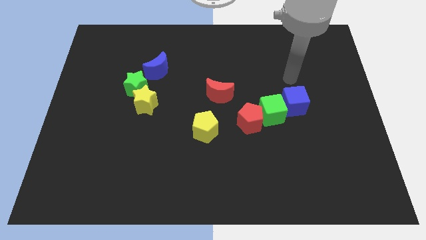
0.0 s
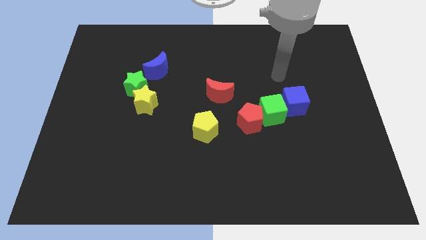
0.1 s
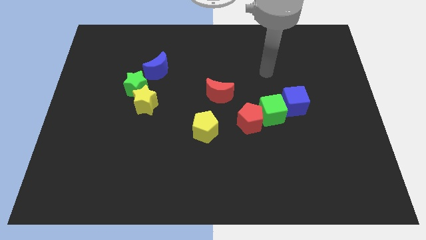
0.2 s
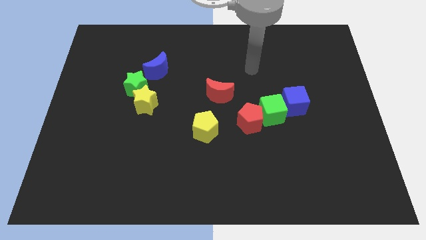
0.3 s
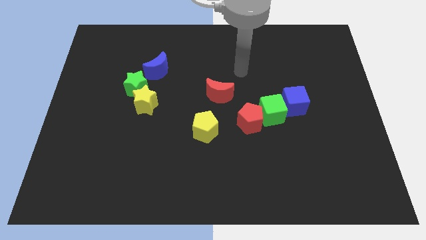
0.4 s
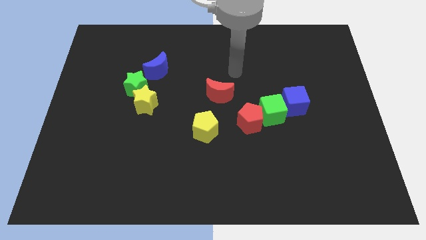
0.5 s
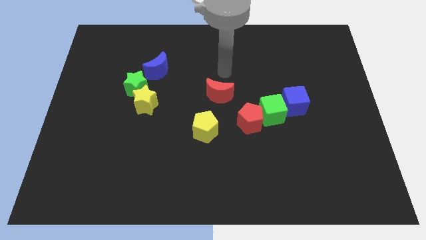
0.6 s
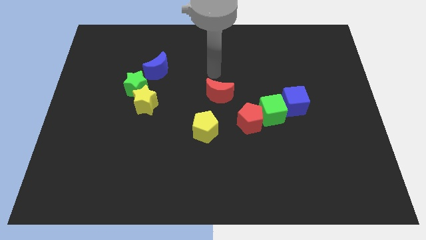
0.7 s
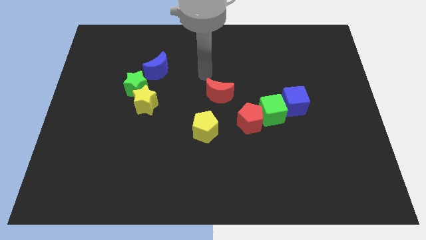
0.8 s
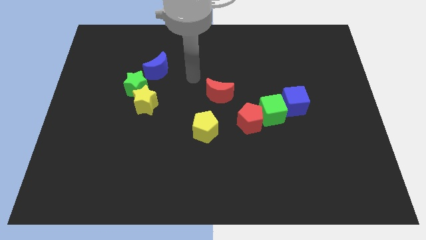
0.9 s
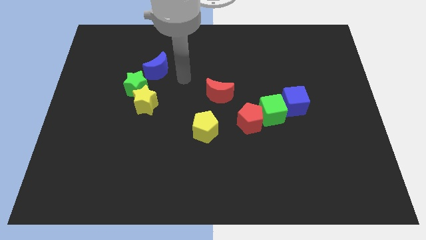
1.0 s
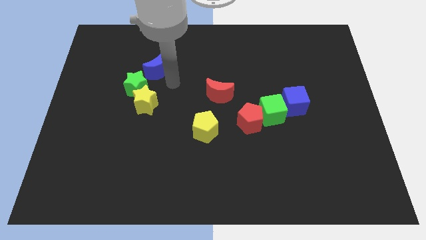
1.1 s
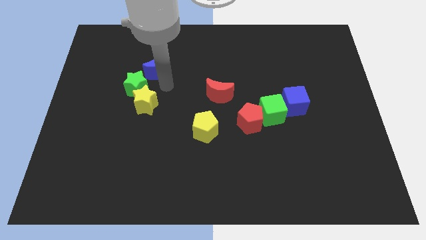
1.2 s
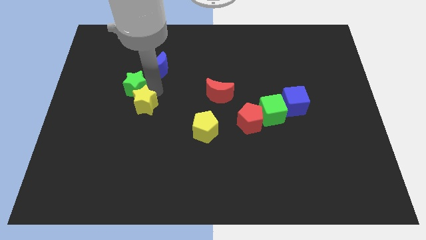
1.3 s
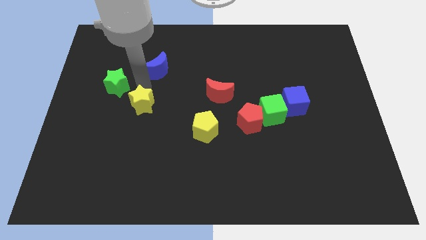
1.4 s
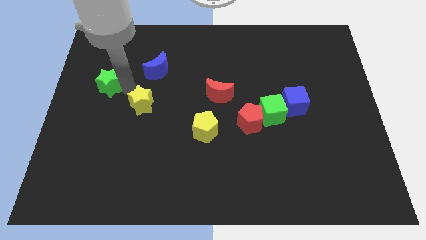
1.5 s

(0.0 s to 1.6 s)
move the yellow star away from the green star

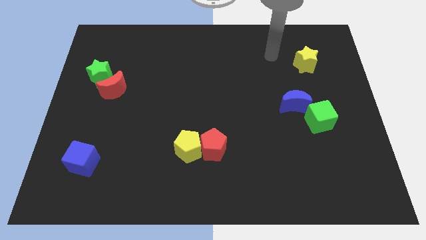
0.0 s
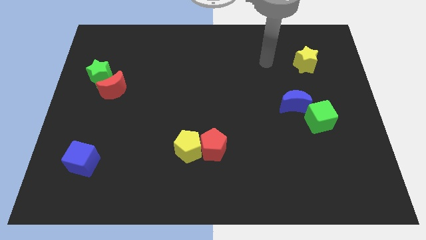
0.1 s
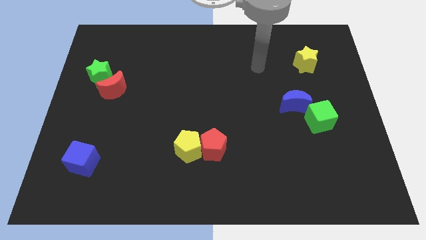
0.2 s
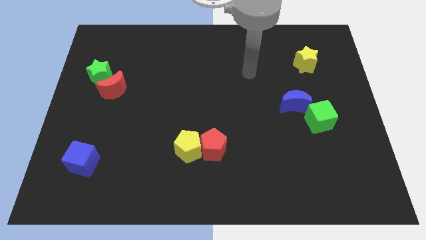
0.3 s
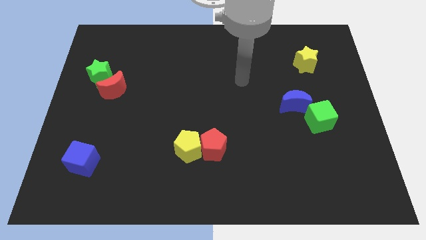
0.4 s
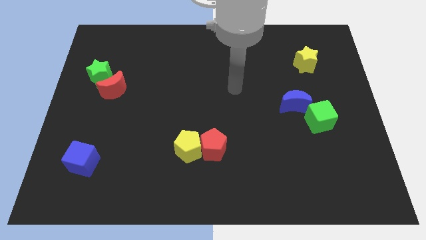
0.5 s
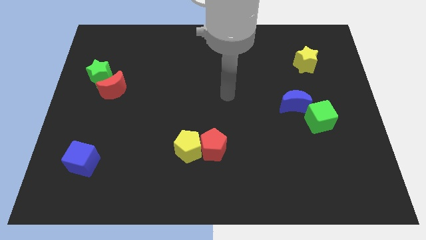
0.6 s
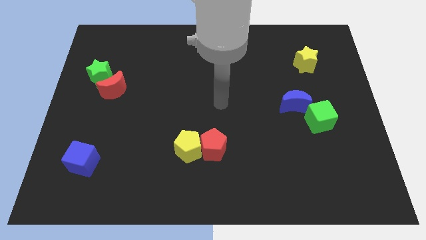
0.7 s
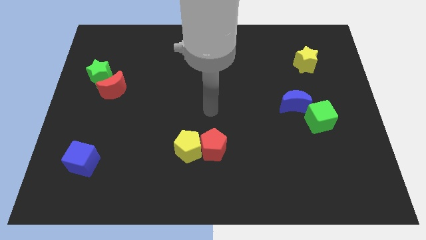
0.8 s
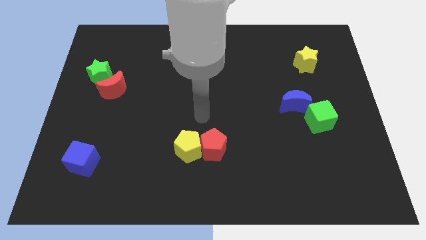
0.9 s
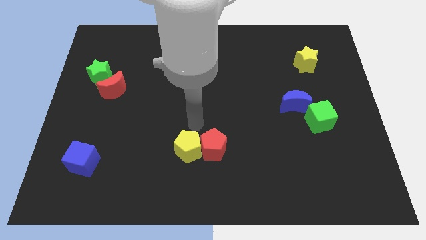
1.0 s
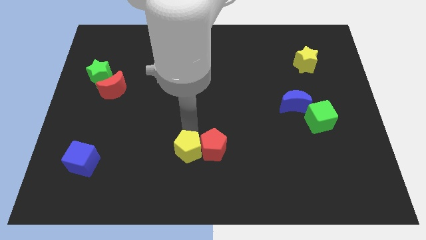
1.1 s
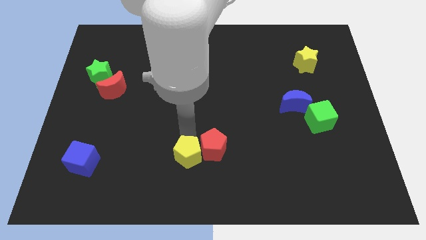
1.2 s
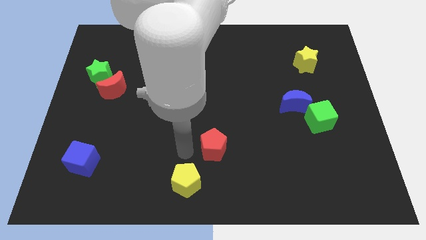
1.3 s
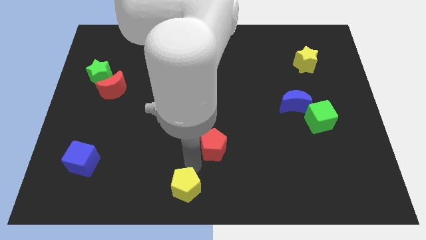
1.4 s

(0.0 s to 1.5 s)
separate the red pentagon from the yellow pentagon

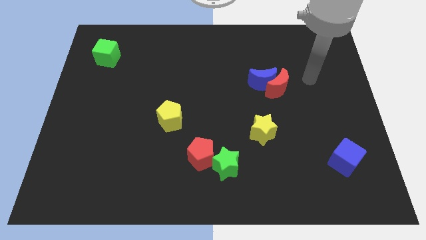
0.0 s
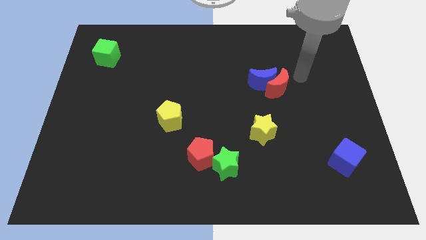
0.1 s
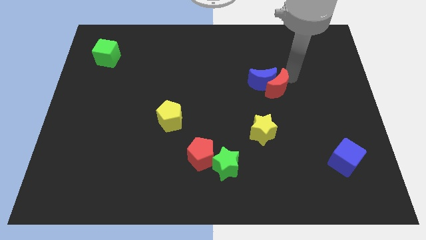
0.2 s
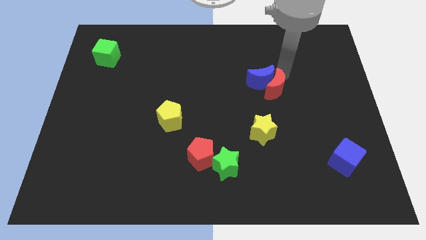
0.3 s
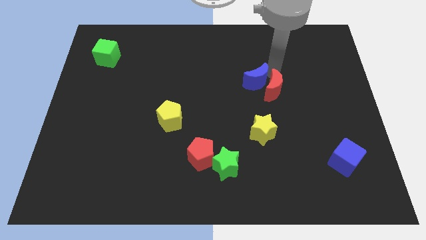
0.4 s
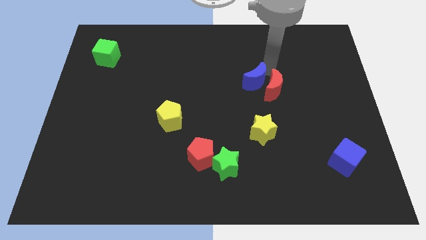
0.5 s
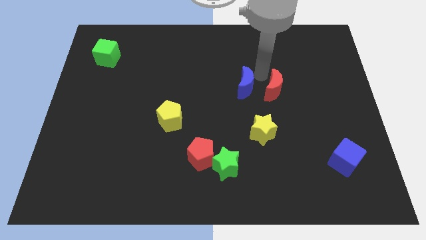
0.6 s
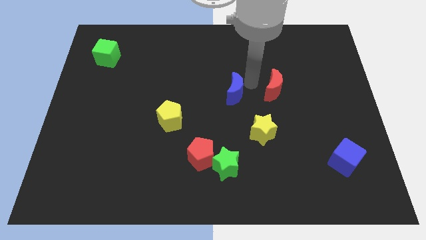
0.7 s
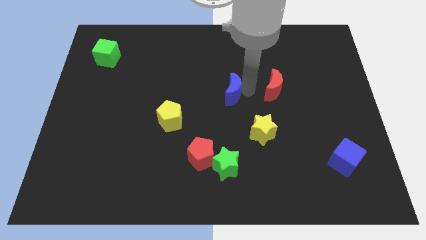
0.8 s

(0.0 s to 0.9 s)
pull the red moon apart from the blue moon

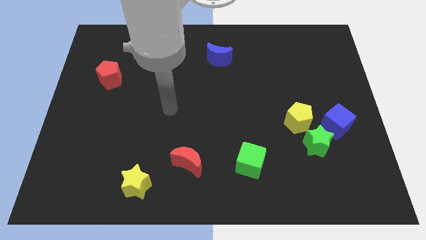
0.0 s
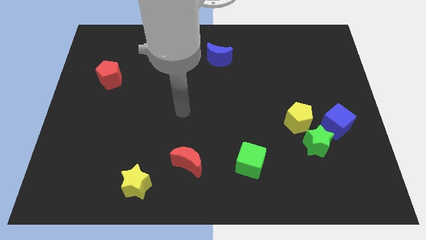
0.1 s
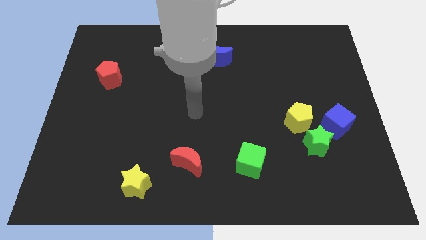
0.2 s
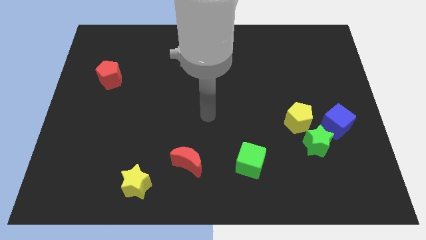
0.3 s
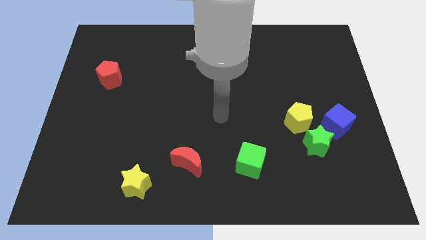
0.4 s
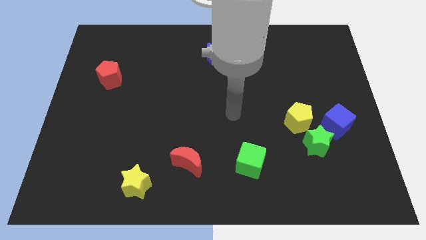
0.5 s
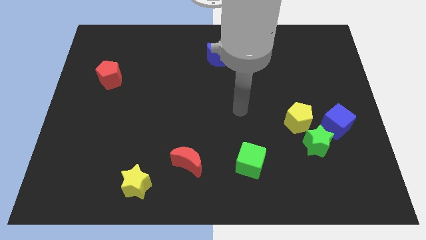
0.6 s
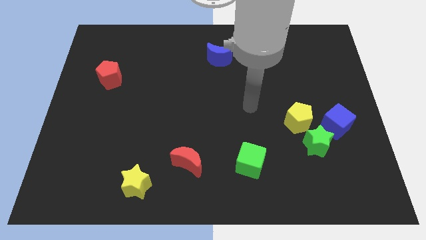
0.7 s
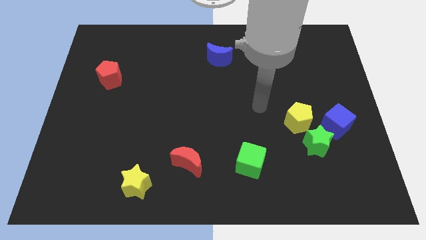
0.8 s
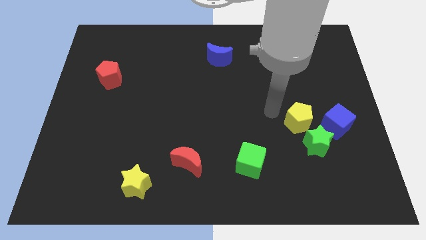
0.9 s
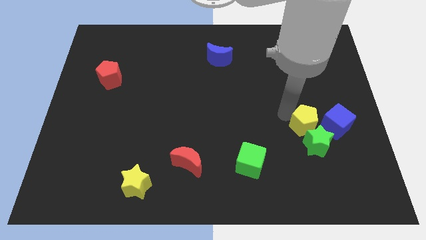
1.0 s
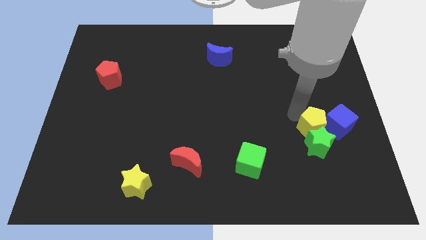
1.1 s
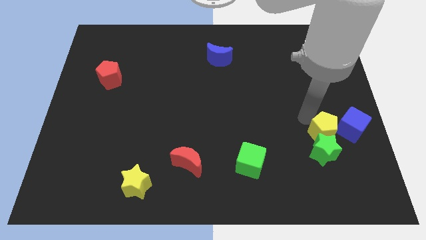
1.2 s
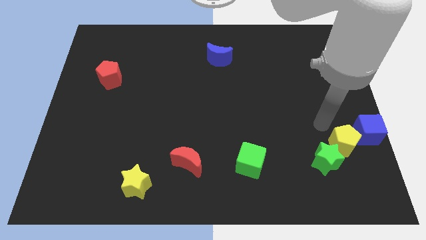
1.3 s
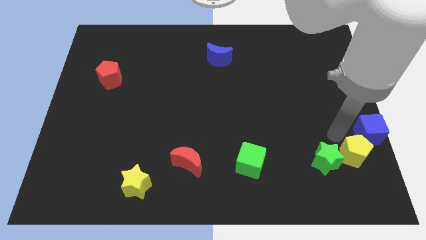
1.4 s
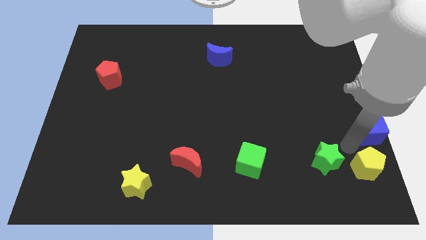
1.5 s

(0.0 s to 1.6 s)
pull the green star apart from the yellow pentagon and blue cube

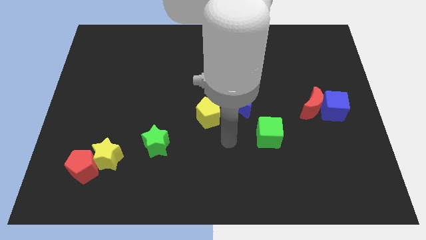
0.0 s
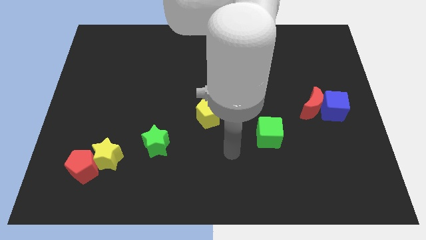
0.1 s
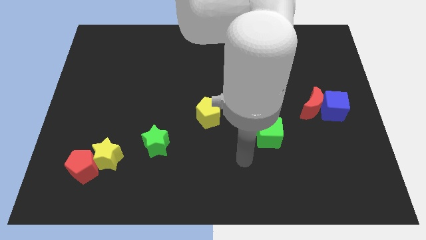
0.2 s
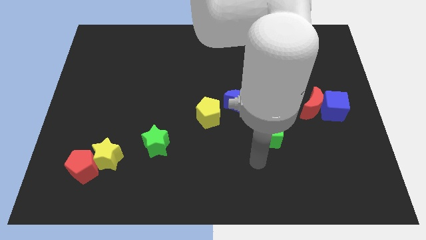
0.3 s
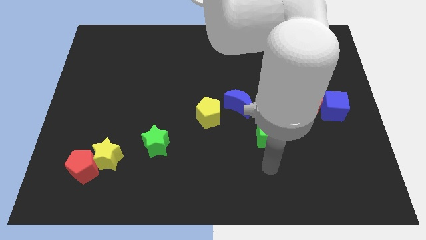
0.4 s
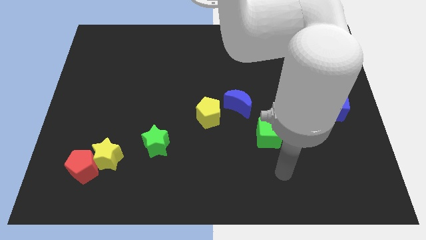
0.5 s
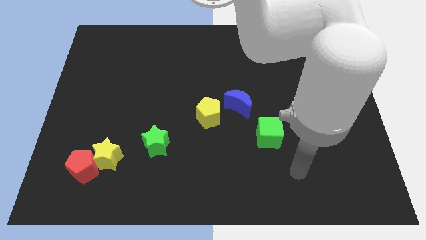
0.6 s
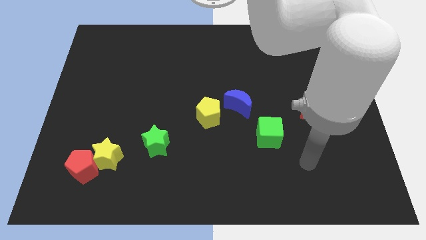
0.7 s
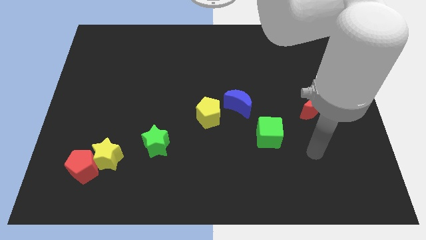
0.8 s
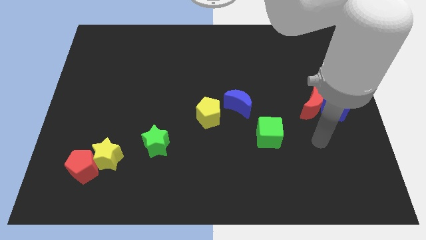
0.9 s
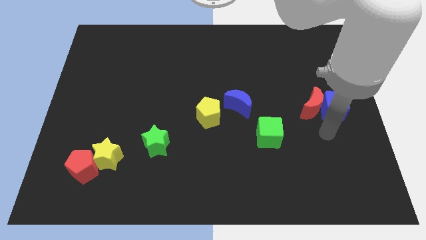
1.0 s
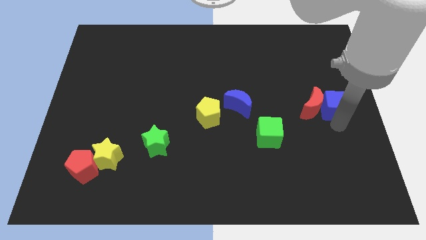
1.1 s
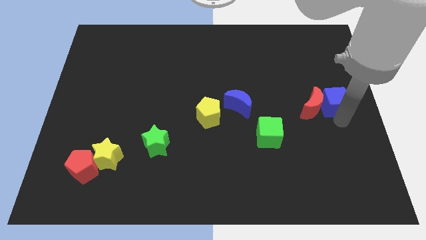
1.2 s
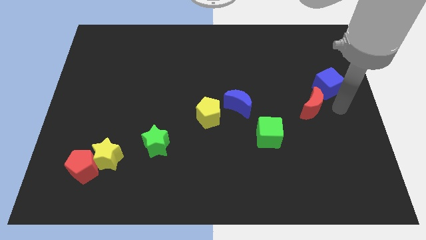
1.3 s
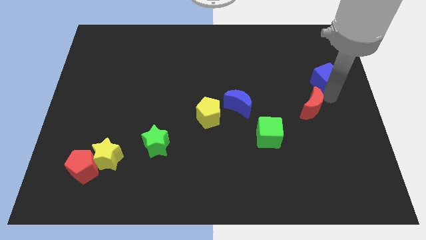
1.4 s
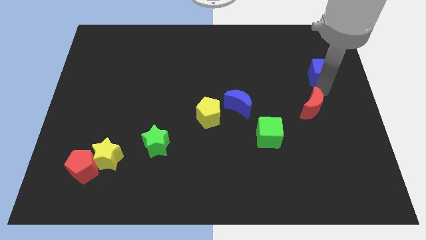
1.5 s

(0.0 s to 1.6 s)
move the red moon away from the blue cube

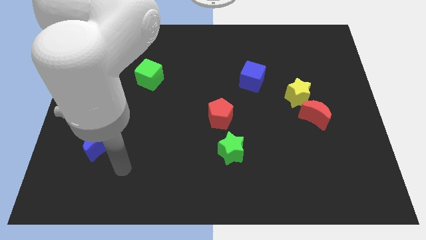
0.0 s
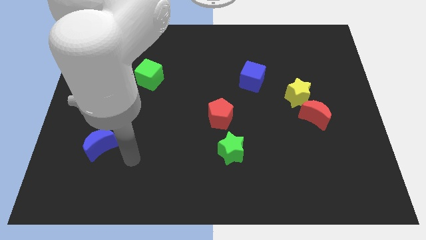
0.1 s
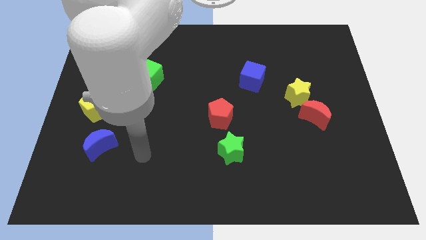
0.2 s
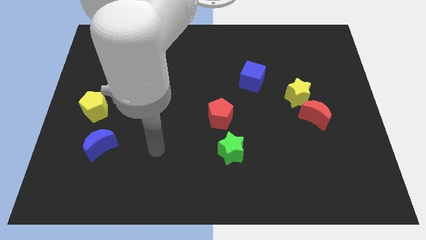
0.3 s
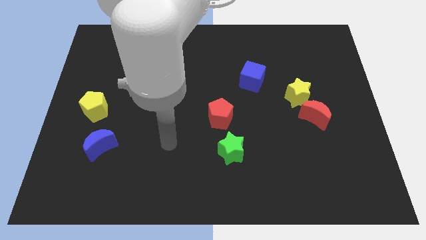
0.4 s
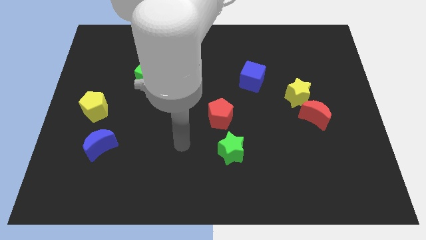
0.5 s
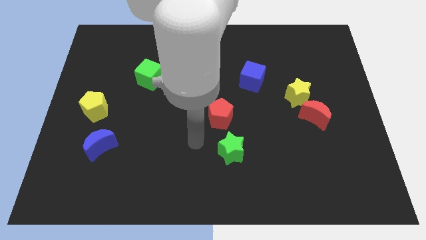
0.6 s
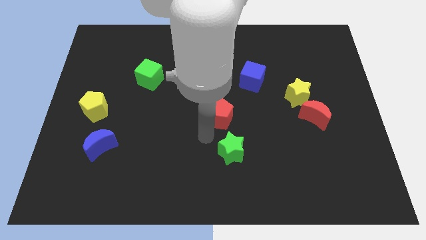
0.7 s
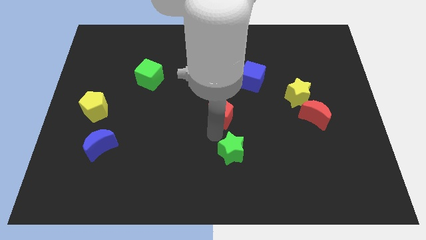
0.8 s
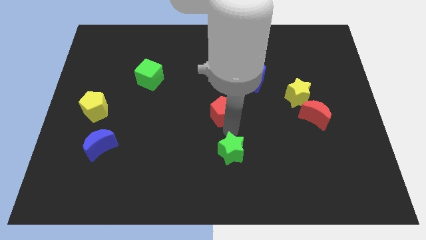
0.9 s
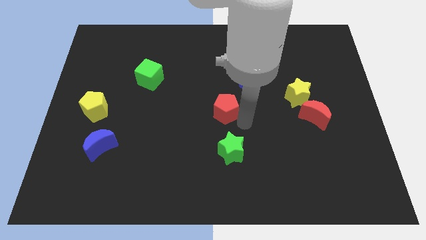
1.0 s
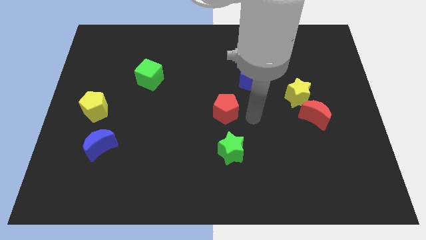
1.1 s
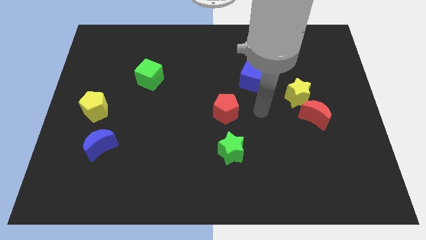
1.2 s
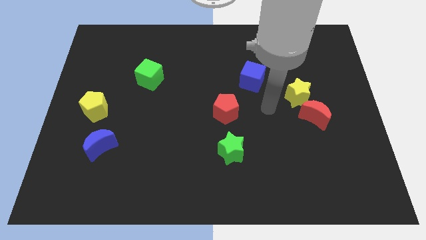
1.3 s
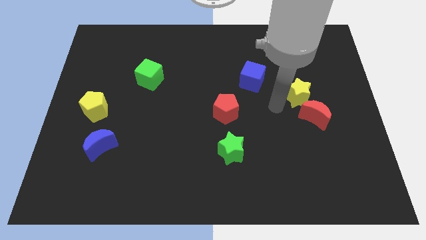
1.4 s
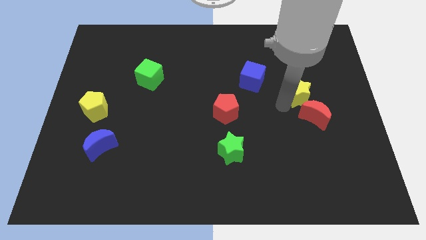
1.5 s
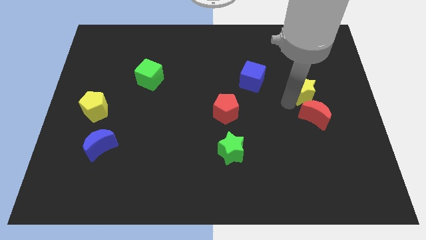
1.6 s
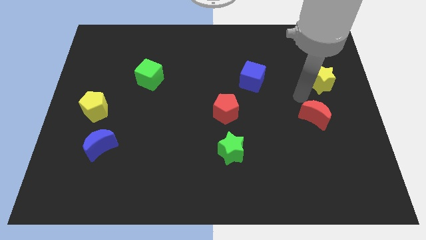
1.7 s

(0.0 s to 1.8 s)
pull the red moon apart from the yellow star

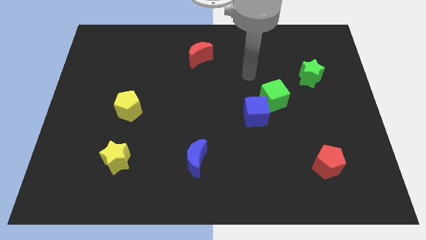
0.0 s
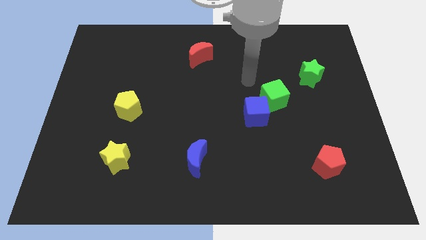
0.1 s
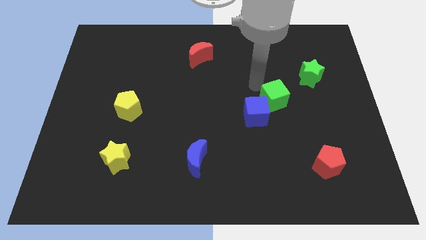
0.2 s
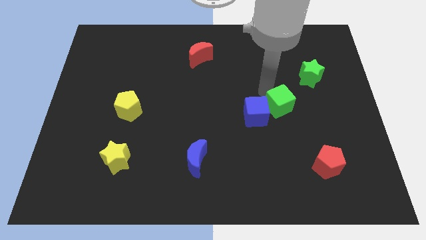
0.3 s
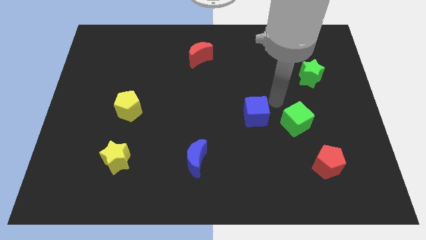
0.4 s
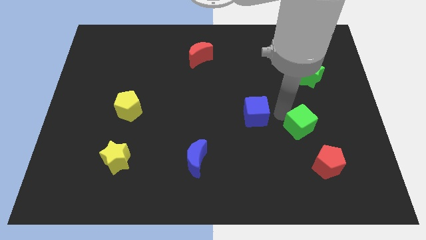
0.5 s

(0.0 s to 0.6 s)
separate the blue cube from the green cube
